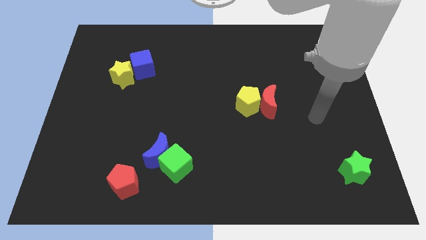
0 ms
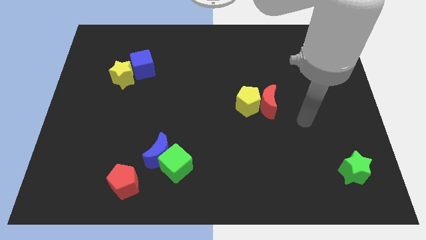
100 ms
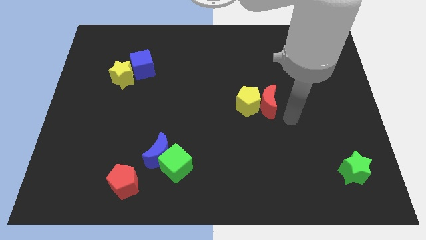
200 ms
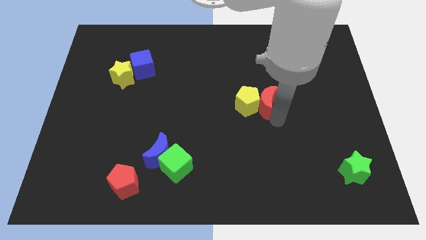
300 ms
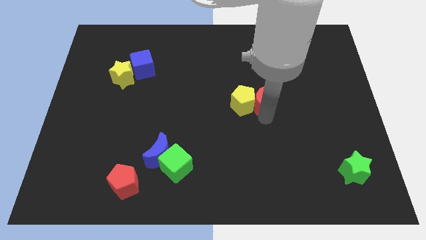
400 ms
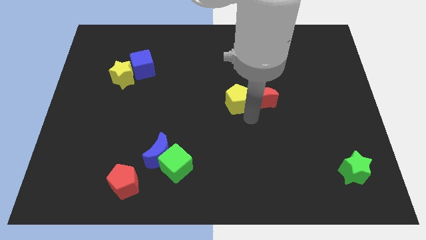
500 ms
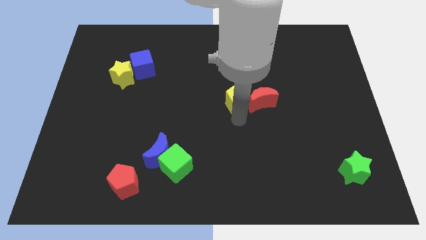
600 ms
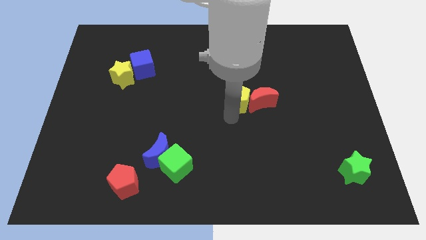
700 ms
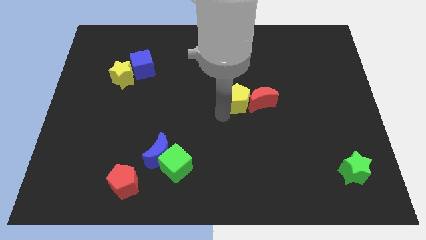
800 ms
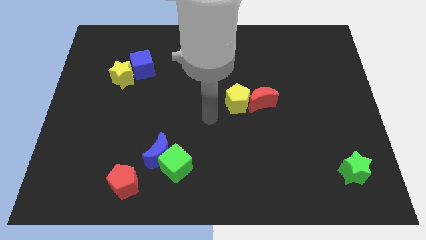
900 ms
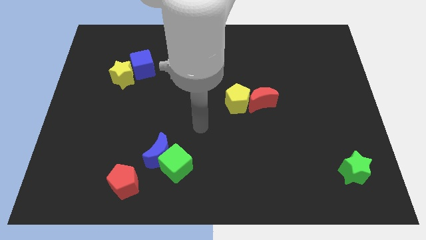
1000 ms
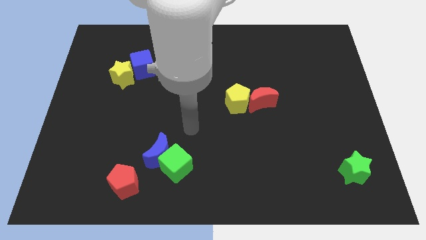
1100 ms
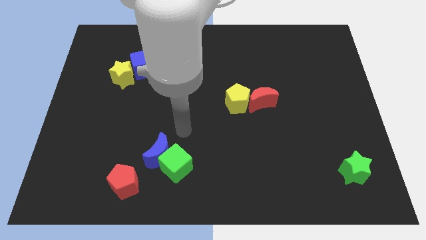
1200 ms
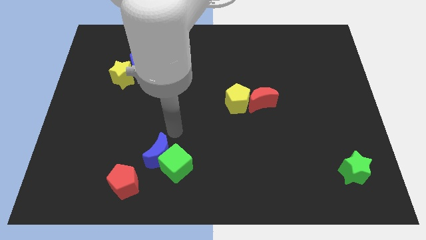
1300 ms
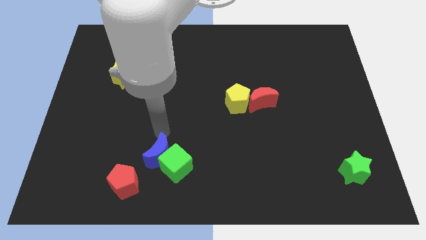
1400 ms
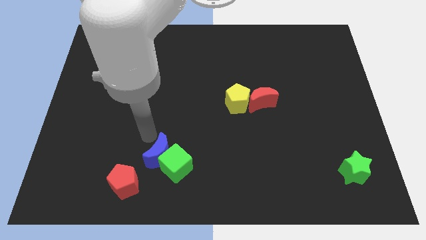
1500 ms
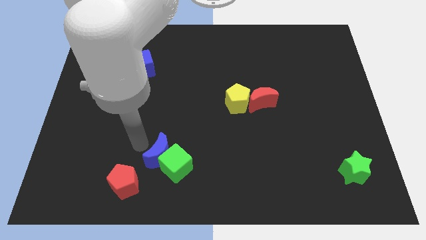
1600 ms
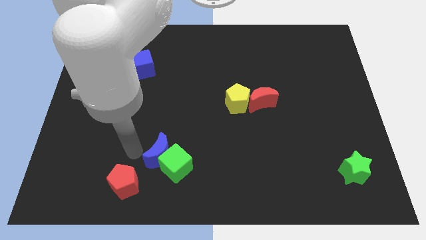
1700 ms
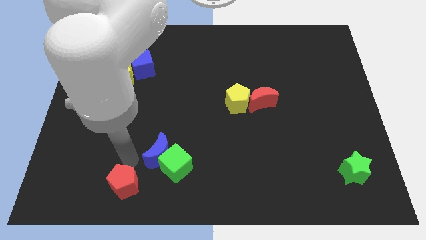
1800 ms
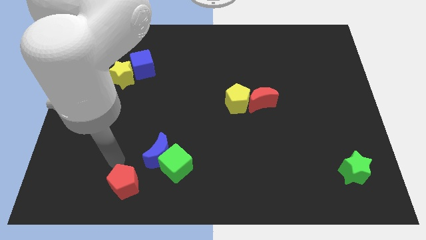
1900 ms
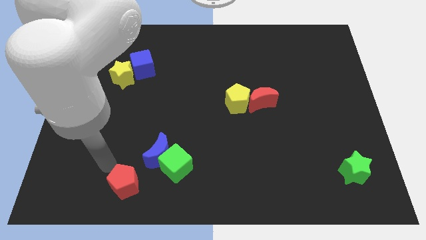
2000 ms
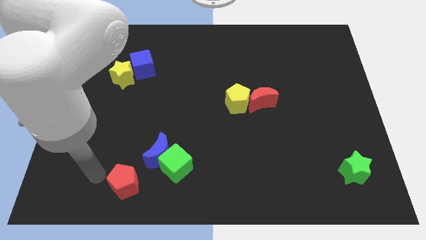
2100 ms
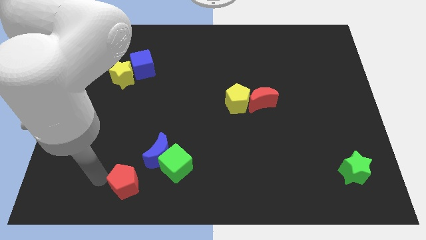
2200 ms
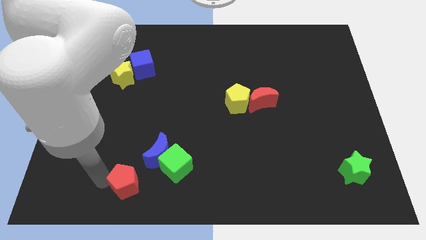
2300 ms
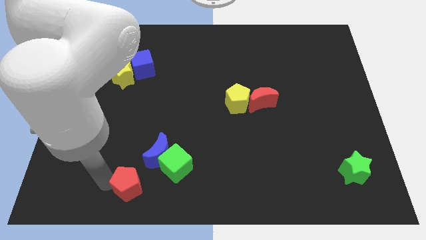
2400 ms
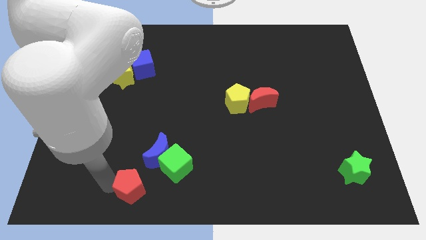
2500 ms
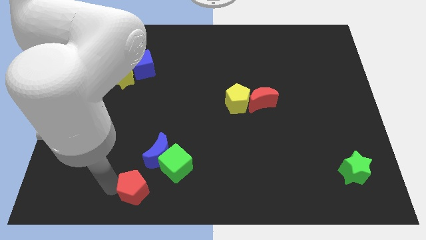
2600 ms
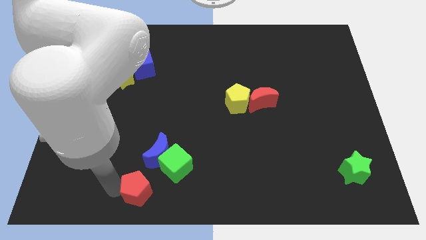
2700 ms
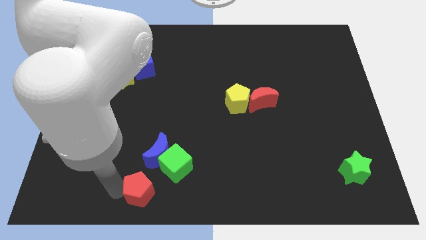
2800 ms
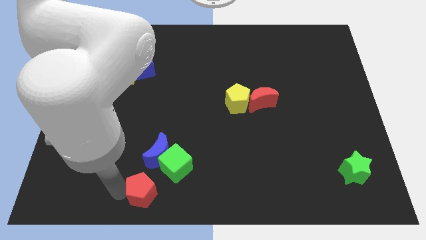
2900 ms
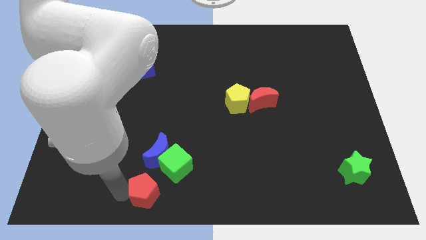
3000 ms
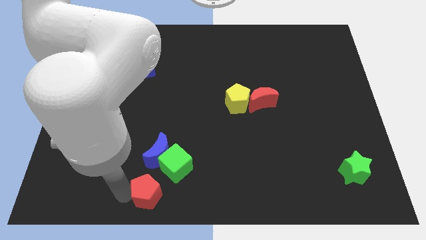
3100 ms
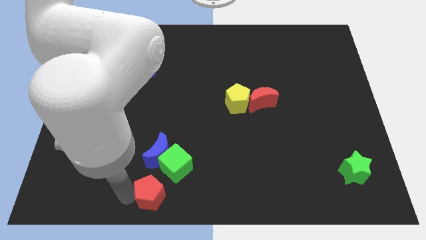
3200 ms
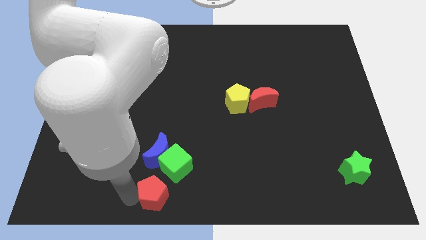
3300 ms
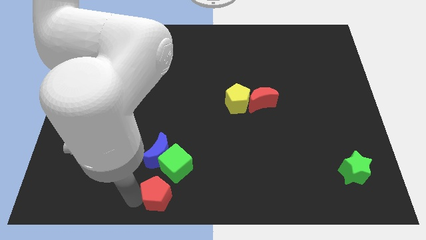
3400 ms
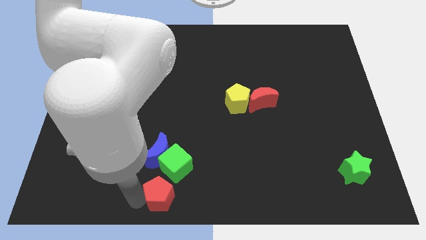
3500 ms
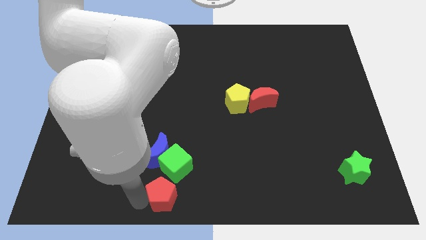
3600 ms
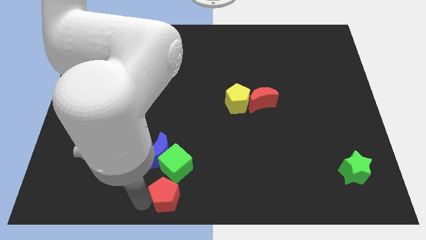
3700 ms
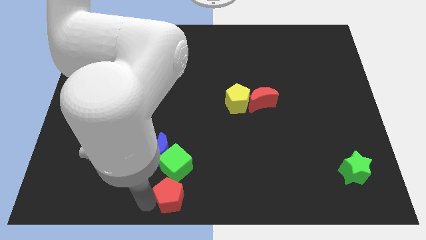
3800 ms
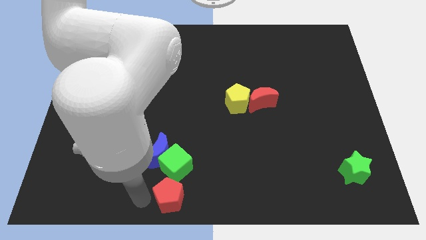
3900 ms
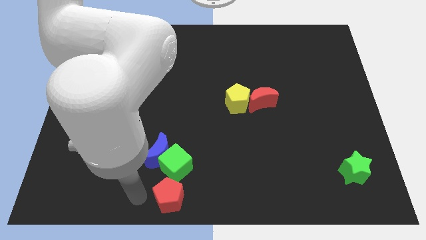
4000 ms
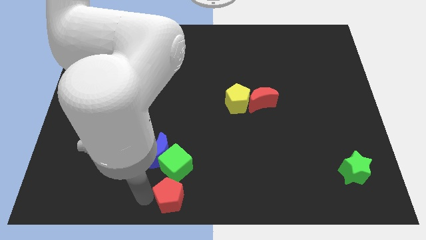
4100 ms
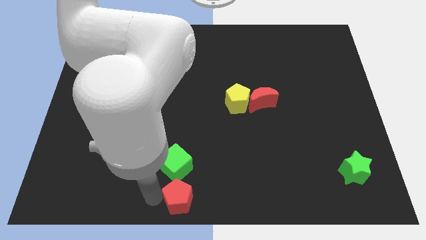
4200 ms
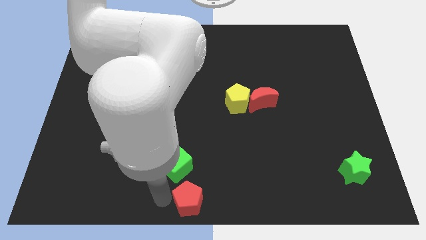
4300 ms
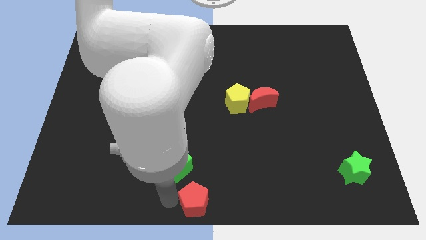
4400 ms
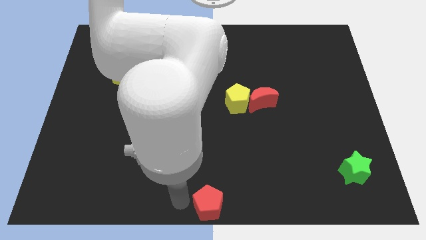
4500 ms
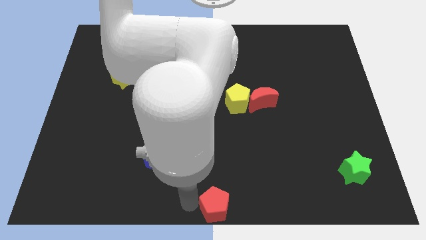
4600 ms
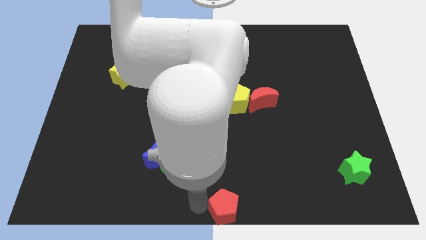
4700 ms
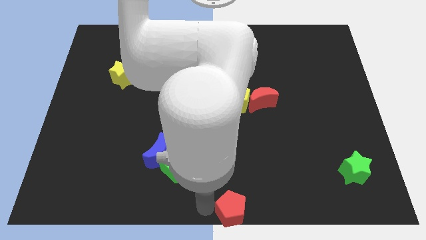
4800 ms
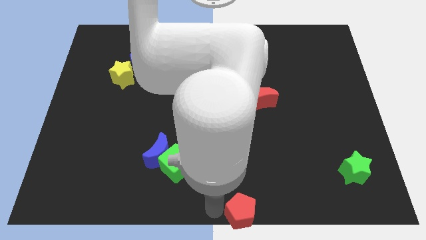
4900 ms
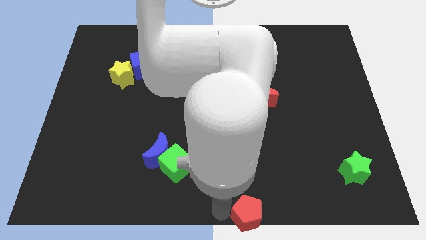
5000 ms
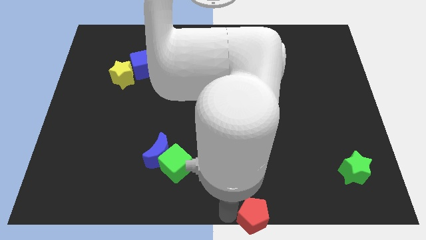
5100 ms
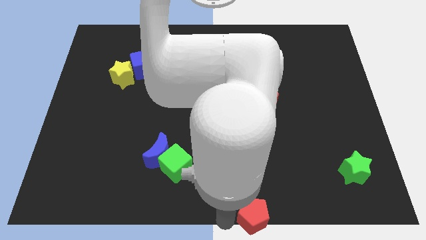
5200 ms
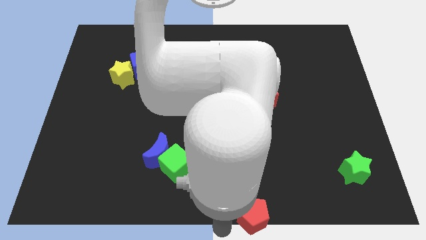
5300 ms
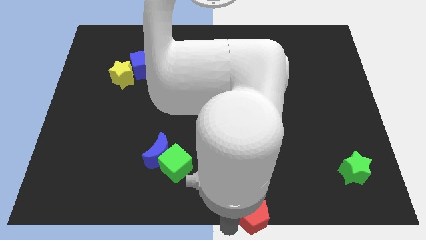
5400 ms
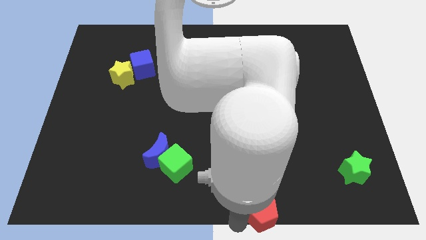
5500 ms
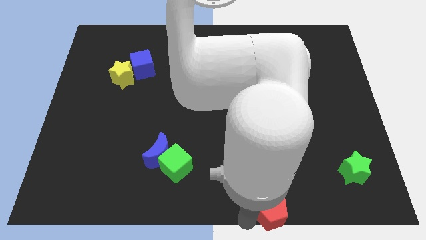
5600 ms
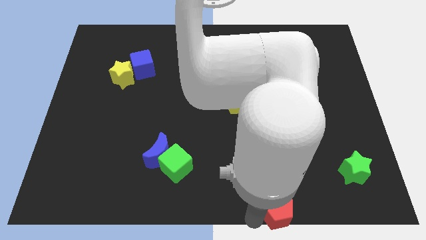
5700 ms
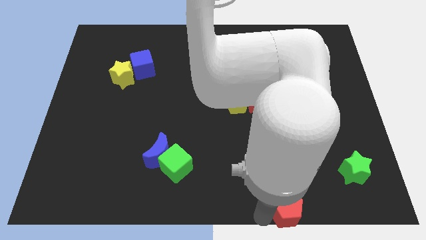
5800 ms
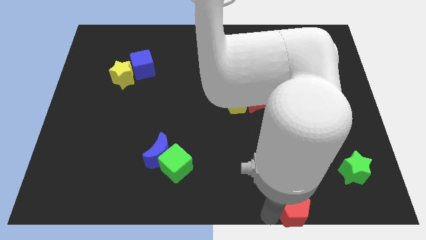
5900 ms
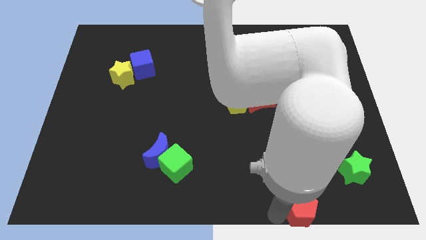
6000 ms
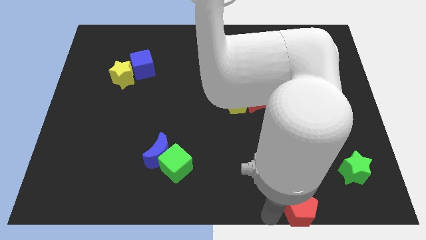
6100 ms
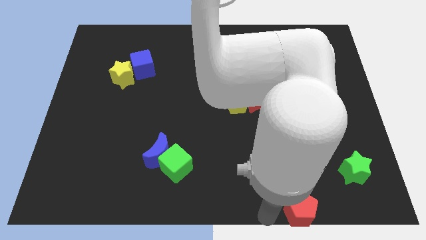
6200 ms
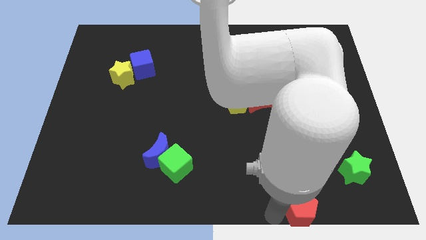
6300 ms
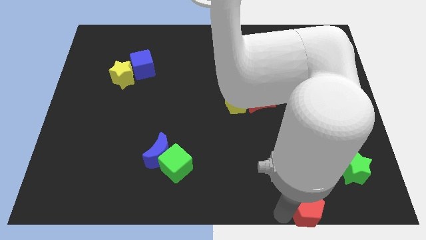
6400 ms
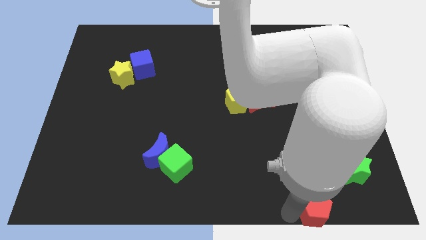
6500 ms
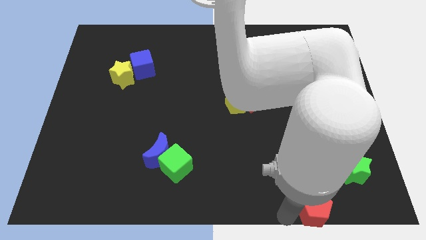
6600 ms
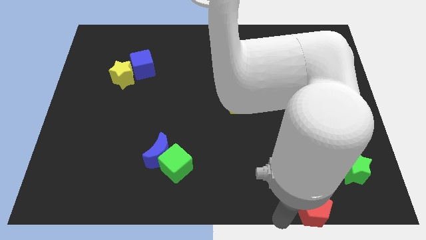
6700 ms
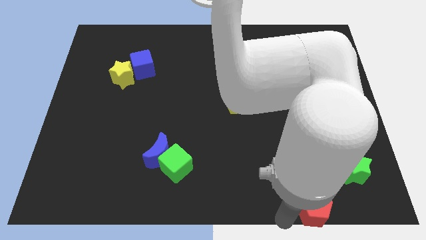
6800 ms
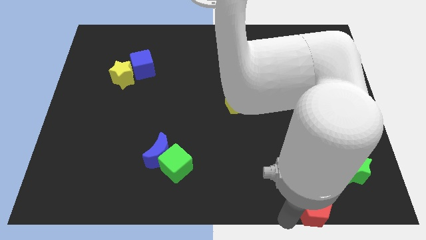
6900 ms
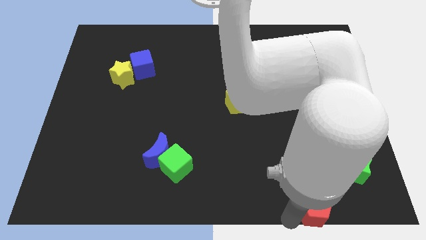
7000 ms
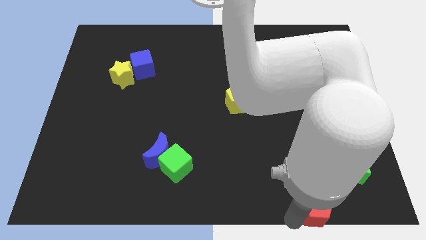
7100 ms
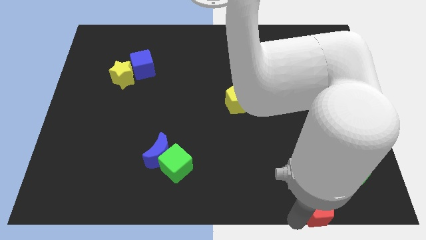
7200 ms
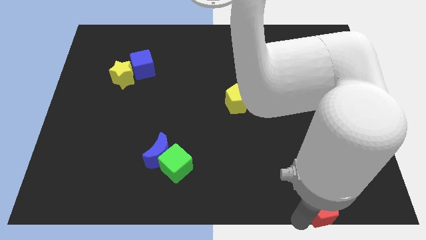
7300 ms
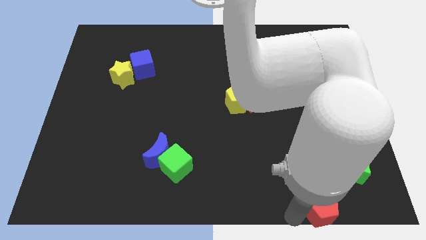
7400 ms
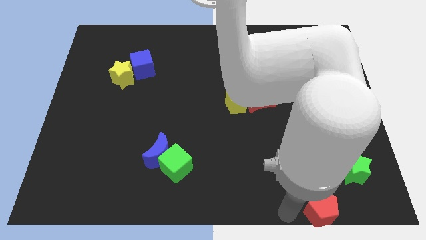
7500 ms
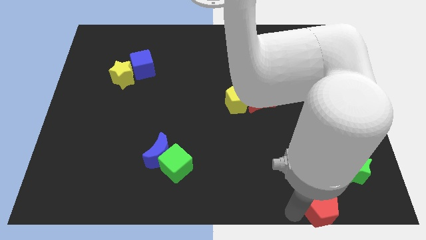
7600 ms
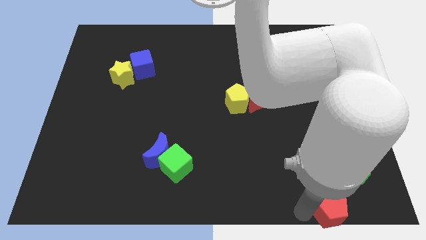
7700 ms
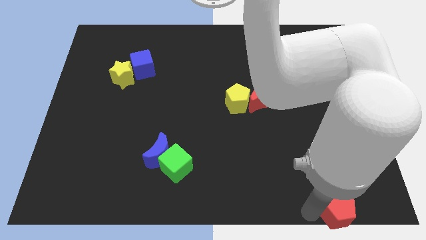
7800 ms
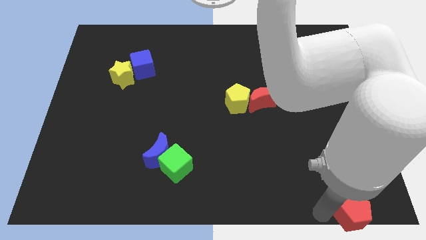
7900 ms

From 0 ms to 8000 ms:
slide the red pentagon to the lower right corner
